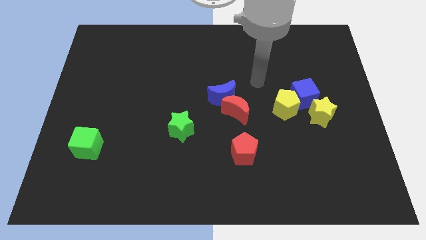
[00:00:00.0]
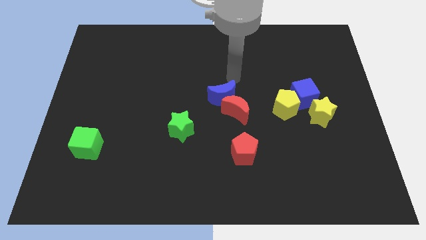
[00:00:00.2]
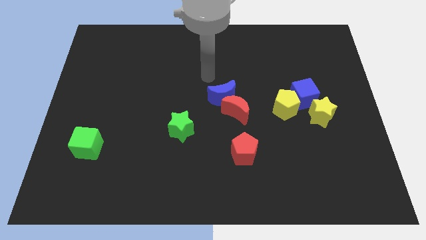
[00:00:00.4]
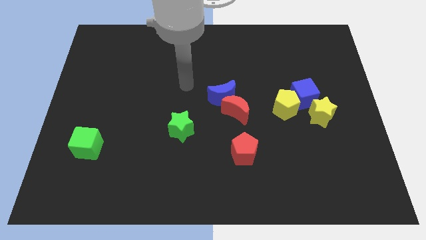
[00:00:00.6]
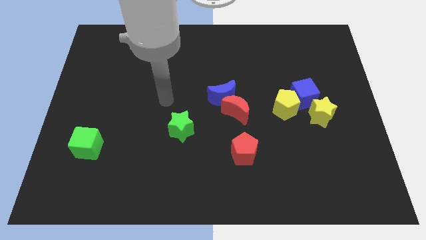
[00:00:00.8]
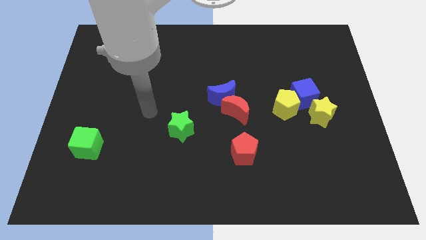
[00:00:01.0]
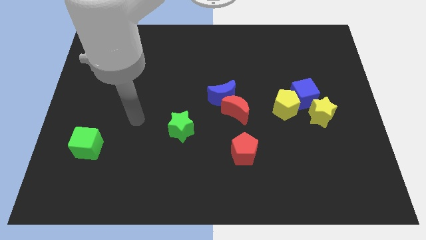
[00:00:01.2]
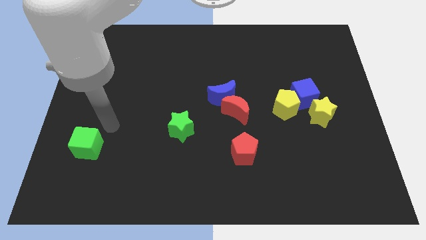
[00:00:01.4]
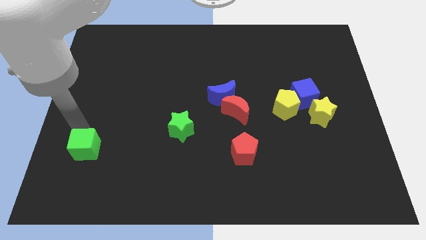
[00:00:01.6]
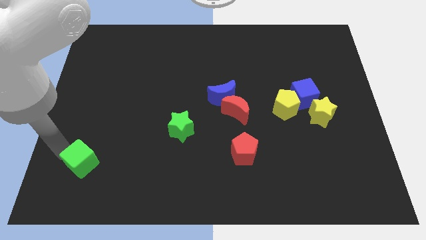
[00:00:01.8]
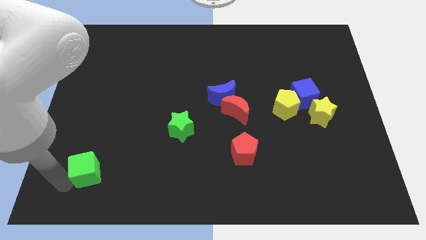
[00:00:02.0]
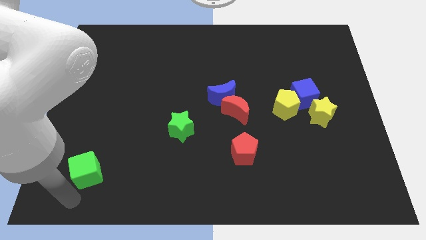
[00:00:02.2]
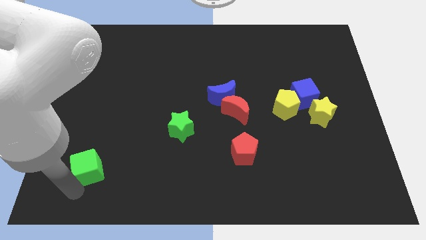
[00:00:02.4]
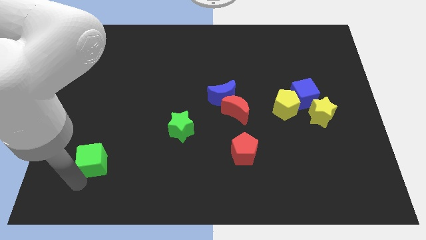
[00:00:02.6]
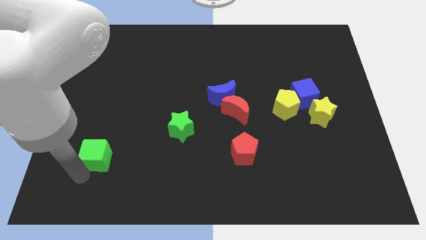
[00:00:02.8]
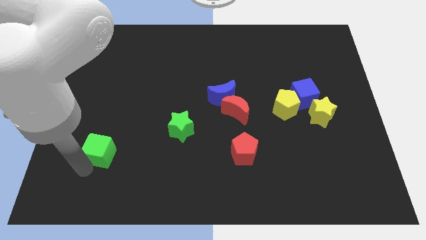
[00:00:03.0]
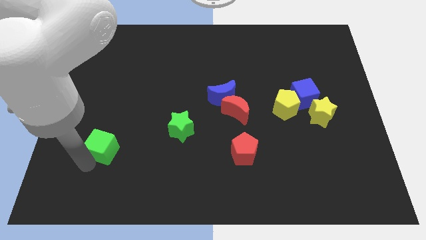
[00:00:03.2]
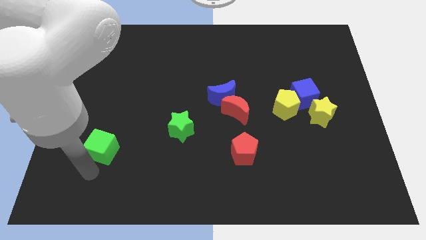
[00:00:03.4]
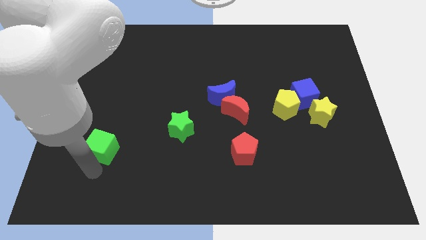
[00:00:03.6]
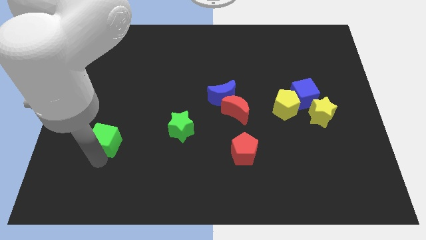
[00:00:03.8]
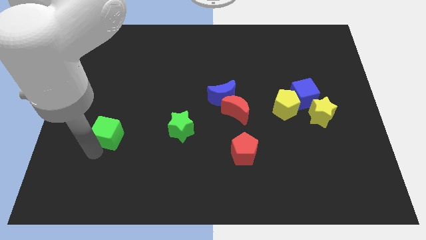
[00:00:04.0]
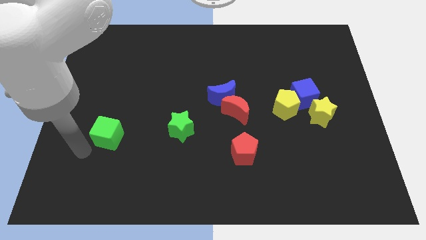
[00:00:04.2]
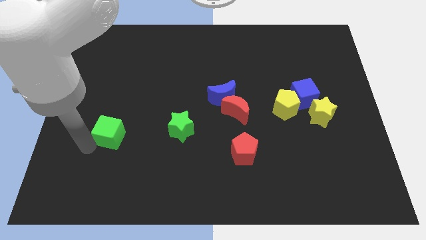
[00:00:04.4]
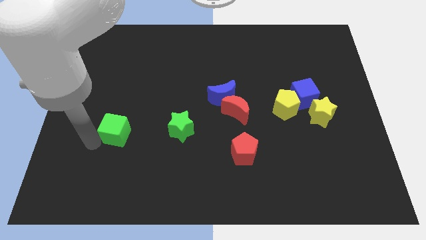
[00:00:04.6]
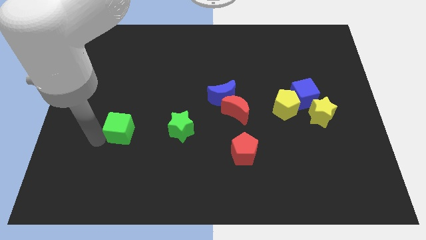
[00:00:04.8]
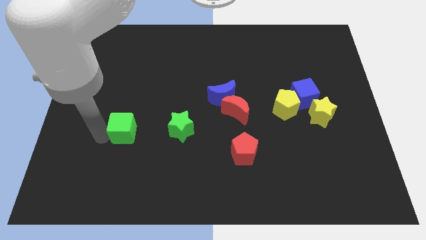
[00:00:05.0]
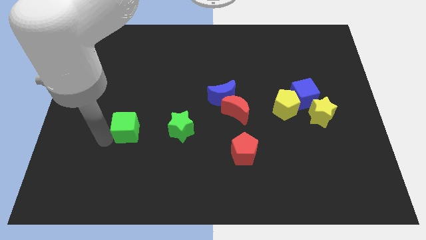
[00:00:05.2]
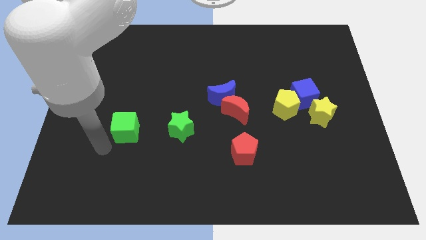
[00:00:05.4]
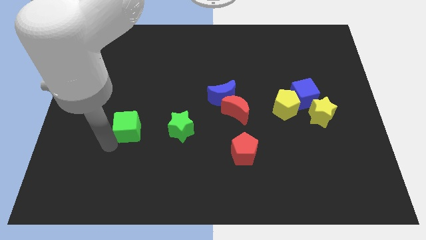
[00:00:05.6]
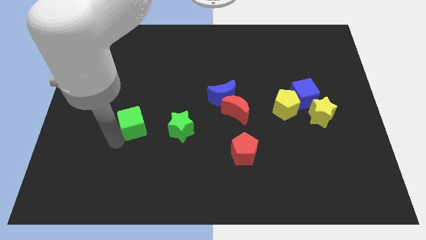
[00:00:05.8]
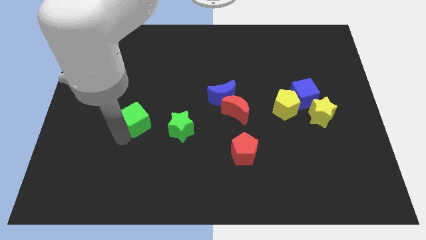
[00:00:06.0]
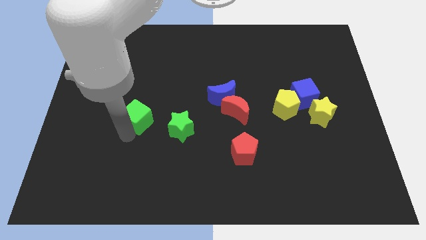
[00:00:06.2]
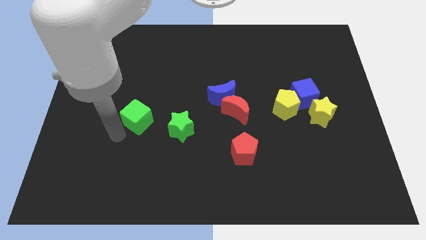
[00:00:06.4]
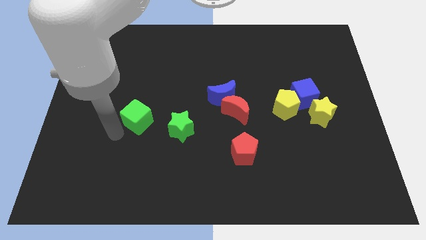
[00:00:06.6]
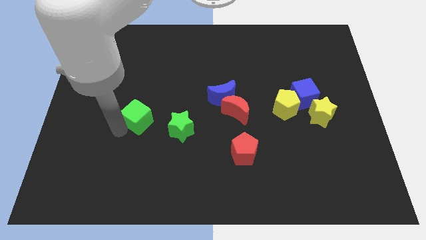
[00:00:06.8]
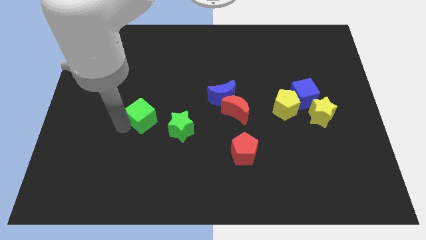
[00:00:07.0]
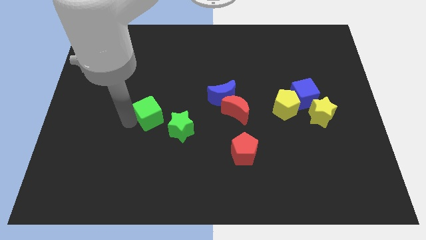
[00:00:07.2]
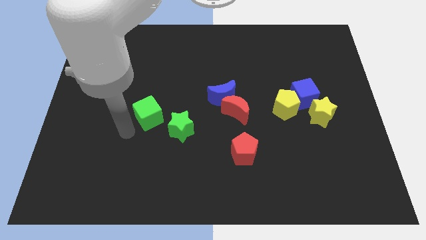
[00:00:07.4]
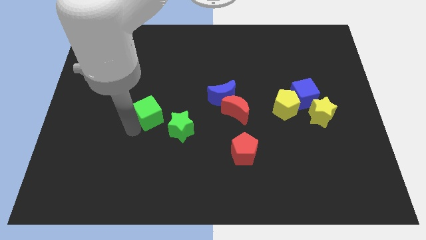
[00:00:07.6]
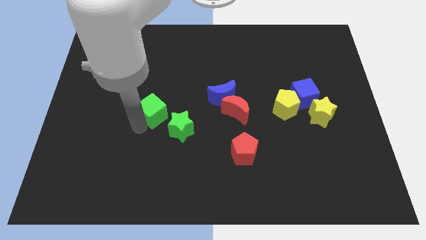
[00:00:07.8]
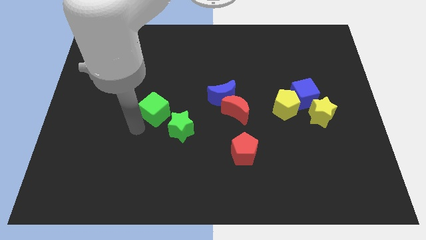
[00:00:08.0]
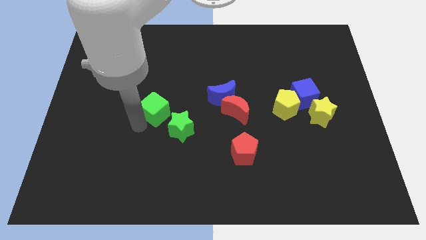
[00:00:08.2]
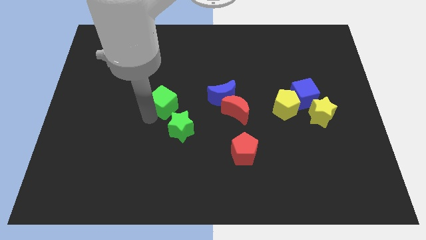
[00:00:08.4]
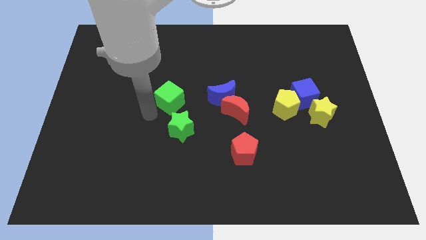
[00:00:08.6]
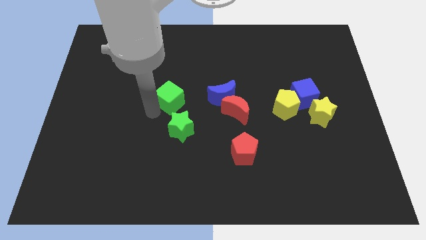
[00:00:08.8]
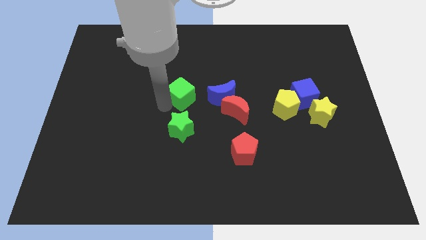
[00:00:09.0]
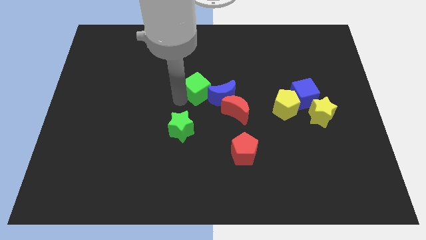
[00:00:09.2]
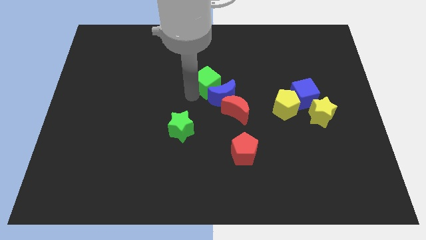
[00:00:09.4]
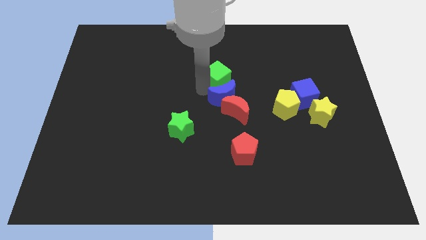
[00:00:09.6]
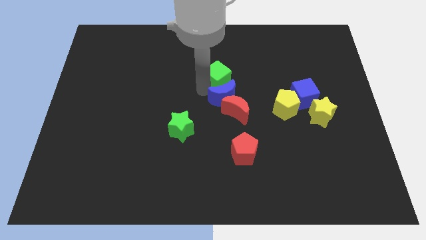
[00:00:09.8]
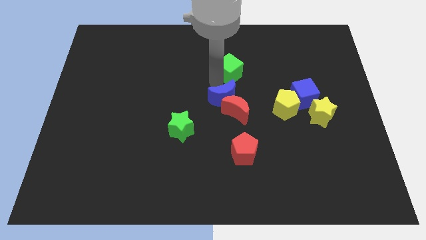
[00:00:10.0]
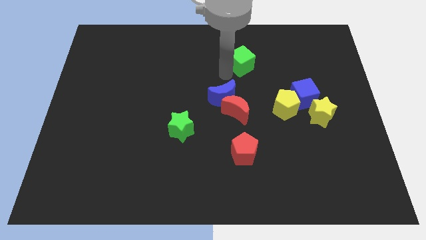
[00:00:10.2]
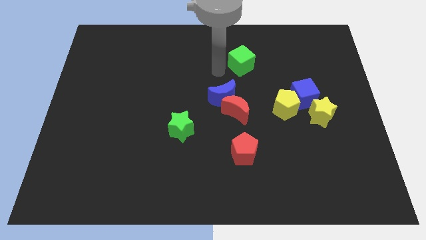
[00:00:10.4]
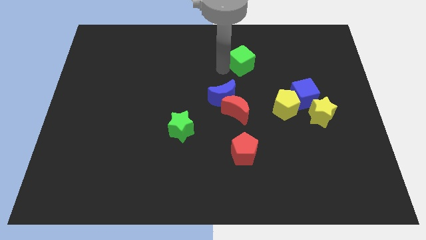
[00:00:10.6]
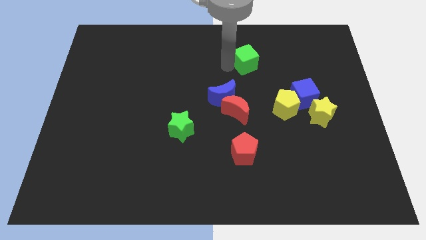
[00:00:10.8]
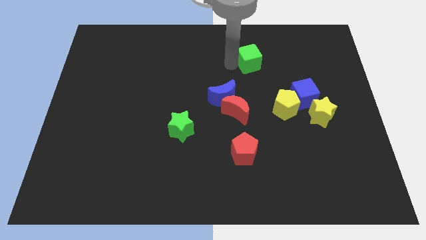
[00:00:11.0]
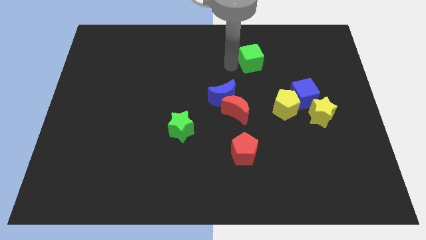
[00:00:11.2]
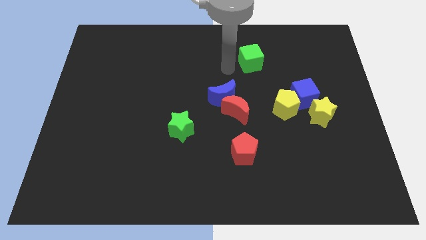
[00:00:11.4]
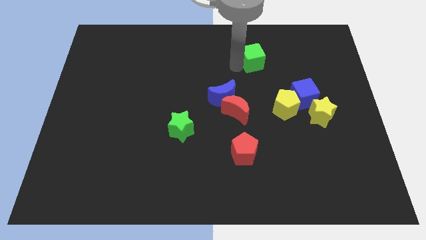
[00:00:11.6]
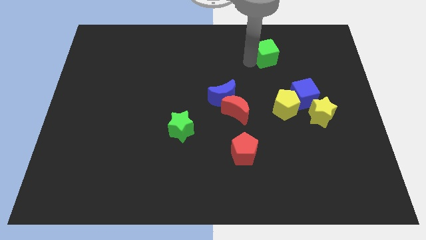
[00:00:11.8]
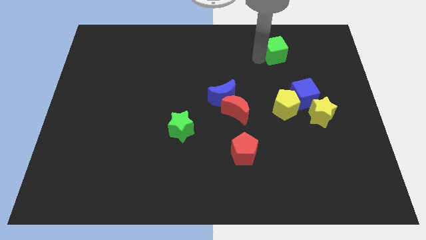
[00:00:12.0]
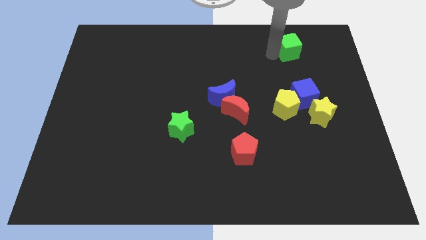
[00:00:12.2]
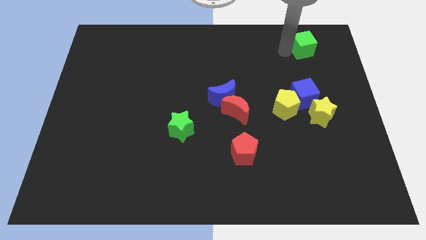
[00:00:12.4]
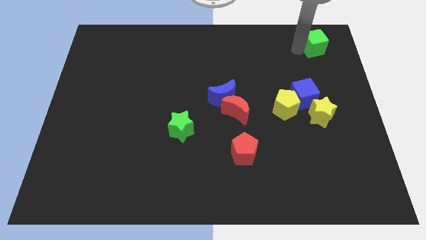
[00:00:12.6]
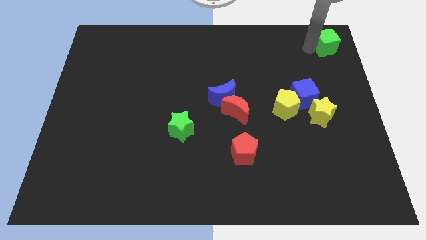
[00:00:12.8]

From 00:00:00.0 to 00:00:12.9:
put the green cube to the top right of the board
